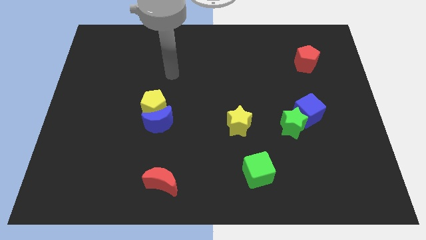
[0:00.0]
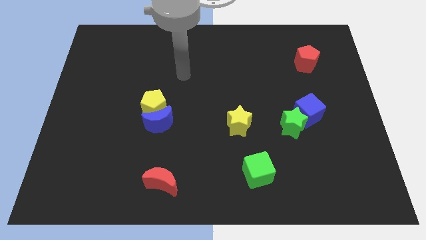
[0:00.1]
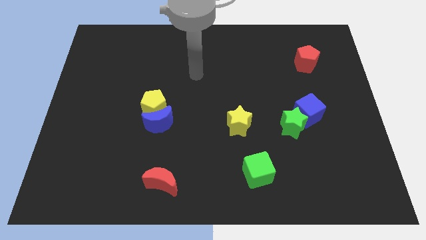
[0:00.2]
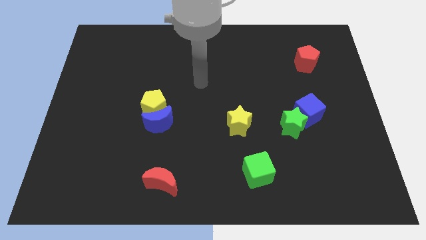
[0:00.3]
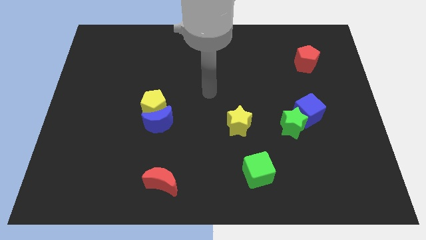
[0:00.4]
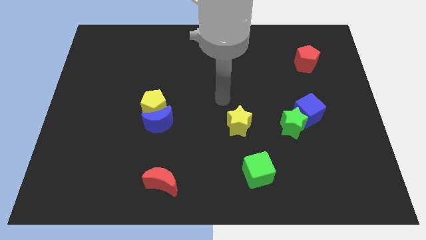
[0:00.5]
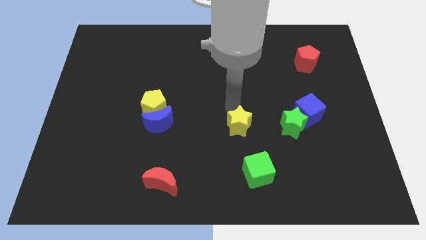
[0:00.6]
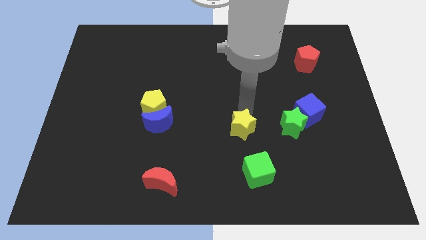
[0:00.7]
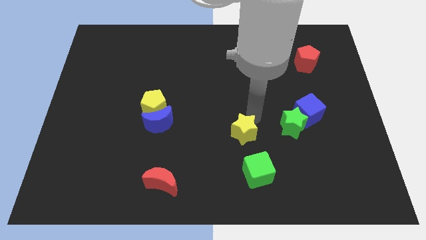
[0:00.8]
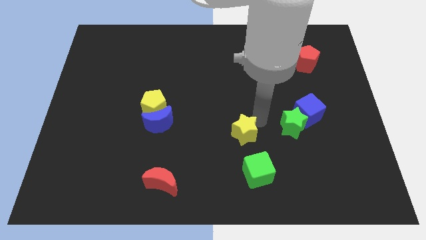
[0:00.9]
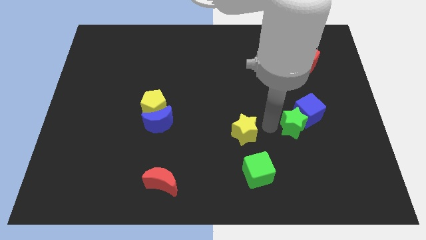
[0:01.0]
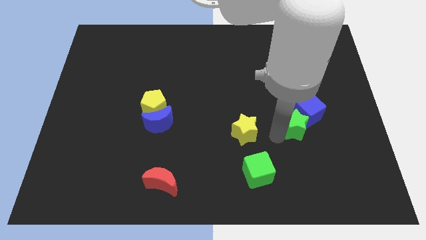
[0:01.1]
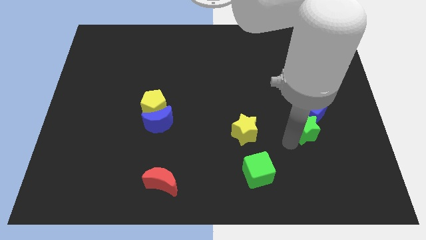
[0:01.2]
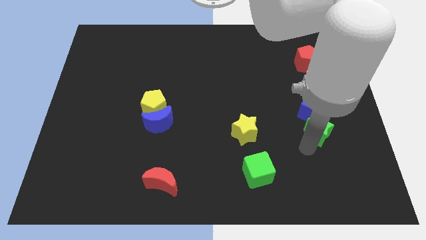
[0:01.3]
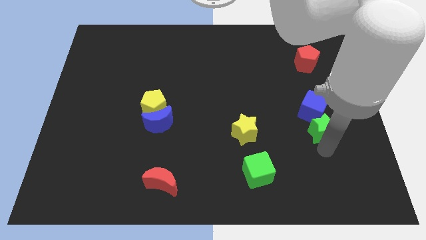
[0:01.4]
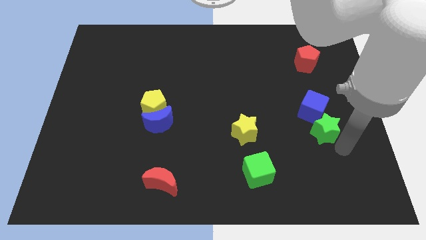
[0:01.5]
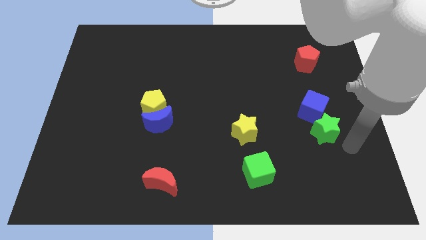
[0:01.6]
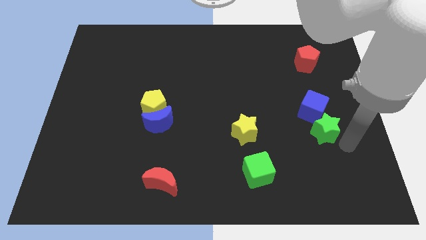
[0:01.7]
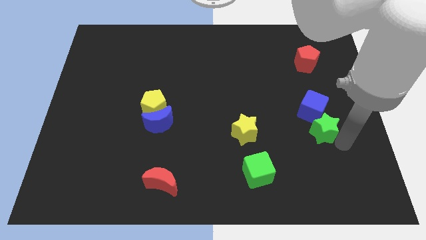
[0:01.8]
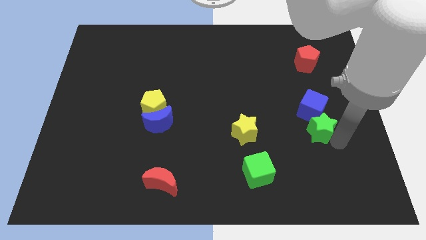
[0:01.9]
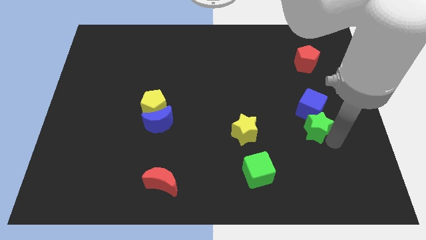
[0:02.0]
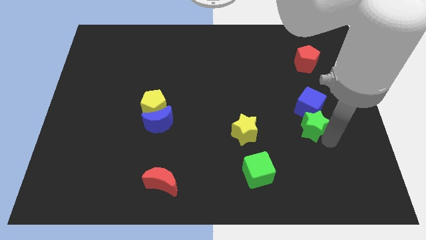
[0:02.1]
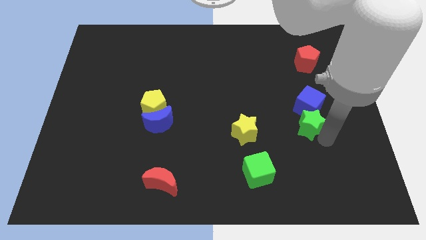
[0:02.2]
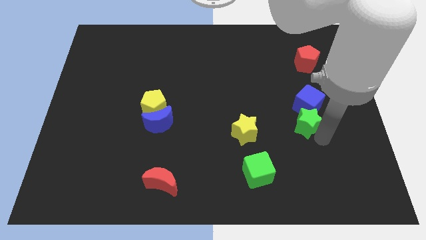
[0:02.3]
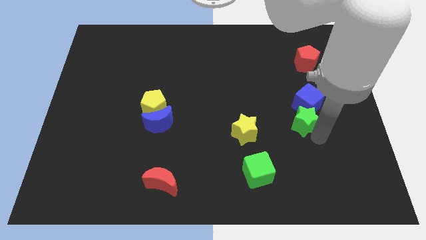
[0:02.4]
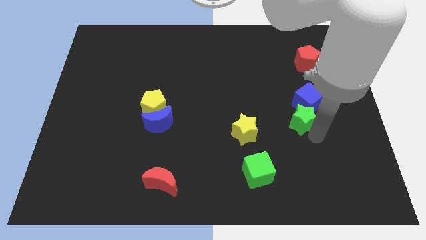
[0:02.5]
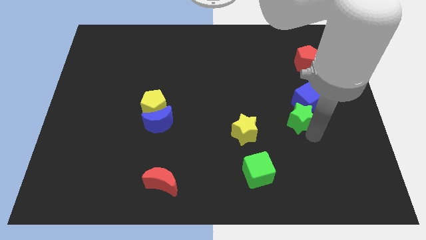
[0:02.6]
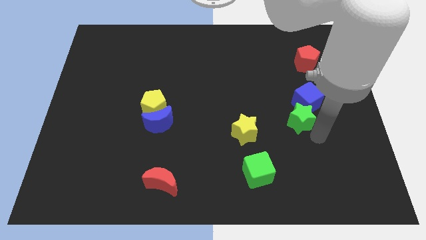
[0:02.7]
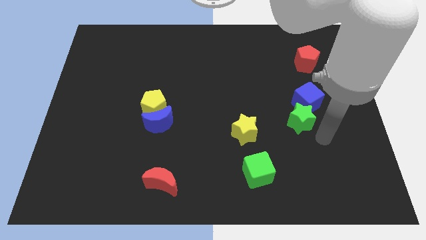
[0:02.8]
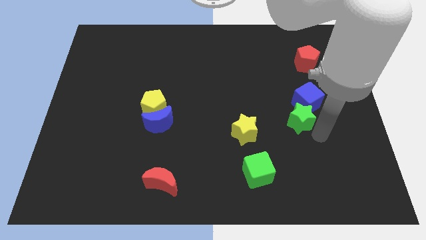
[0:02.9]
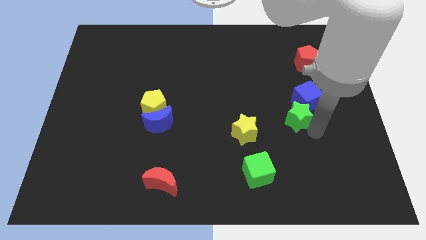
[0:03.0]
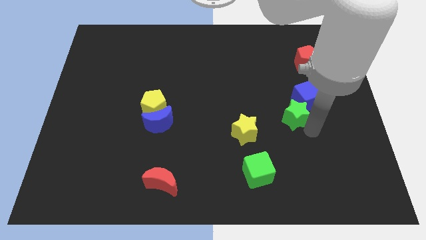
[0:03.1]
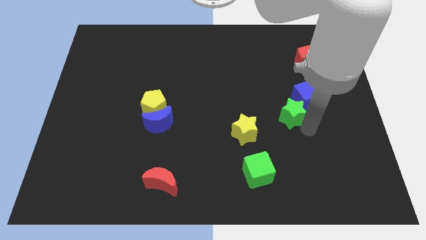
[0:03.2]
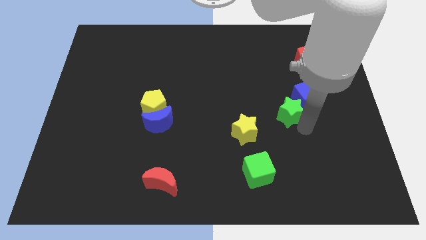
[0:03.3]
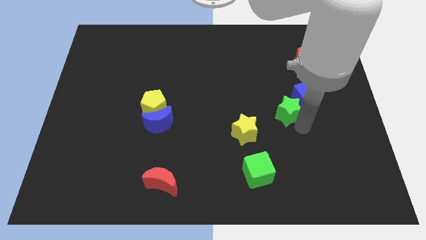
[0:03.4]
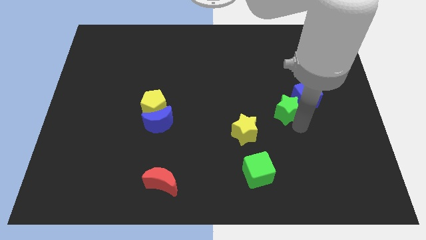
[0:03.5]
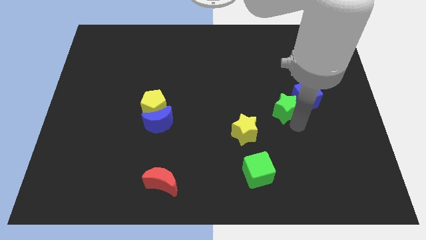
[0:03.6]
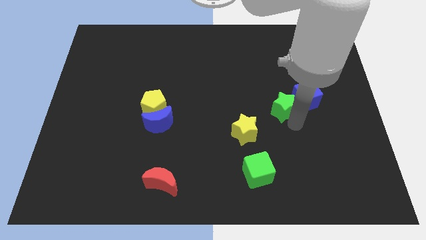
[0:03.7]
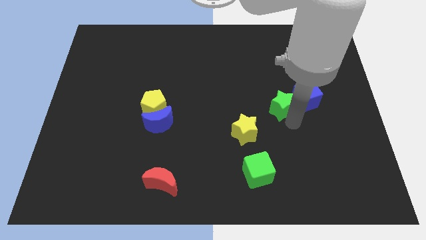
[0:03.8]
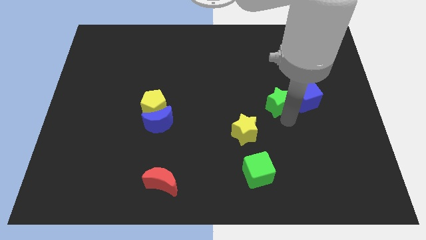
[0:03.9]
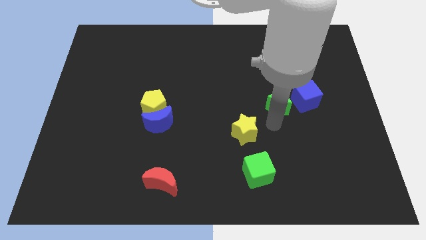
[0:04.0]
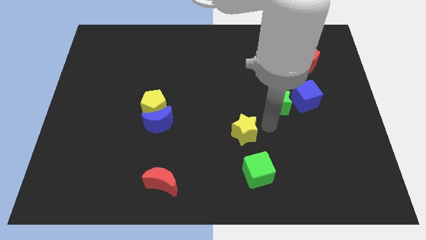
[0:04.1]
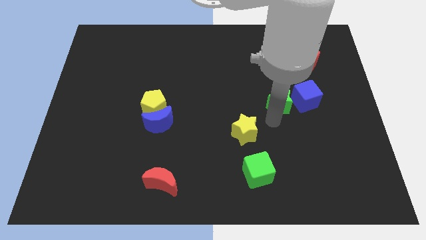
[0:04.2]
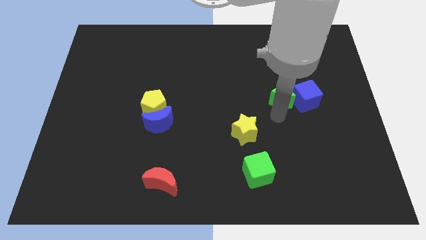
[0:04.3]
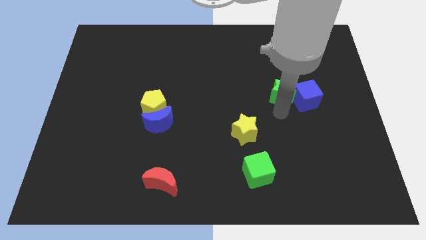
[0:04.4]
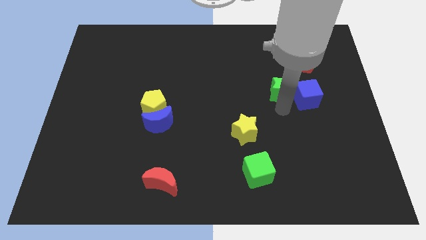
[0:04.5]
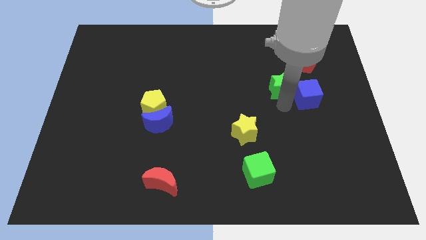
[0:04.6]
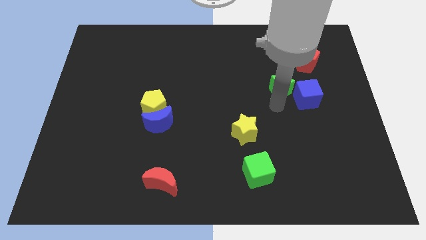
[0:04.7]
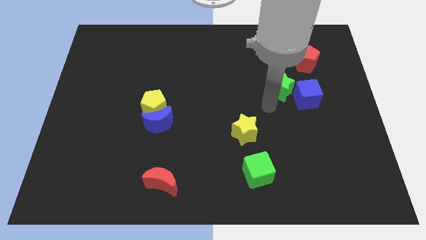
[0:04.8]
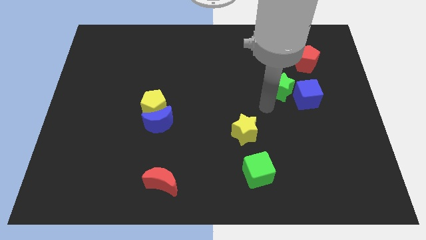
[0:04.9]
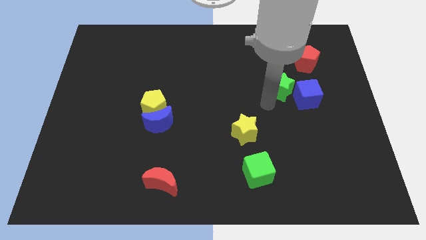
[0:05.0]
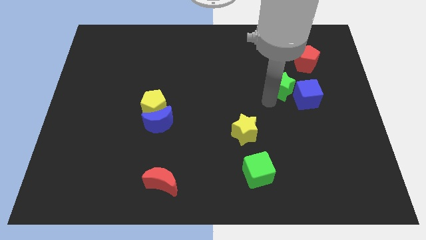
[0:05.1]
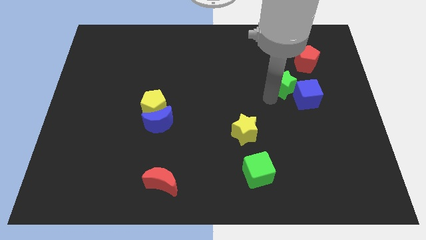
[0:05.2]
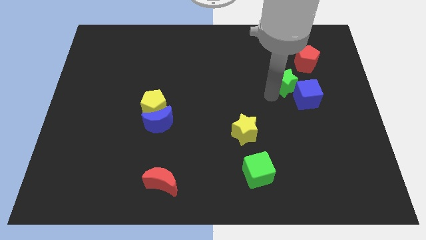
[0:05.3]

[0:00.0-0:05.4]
put the green star to the top side of the blue cube

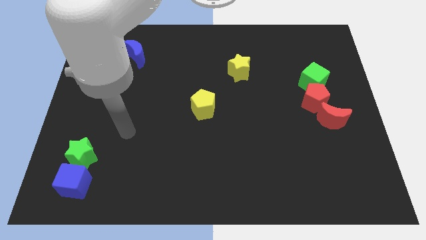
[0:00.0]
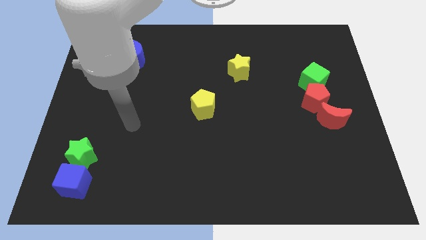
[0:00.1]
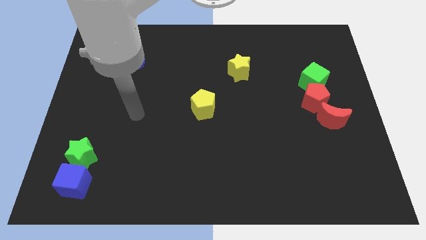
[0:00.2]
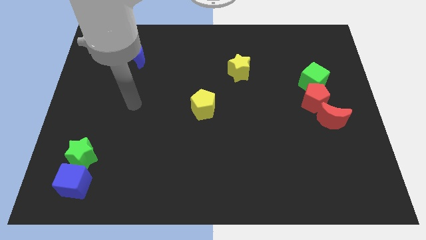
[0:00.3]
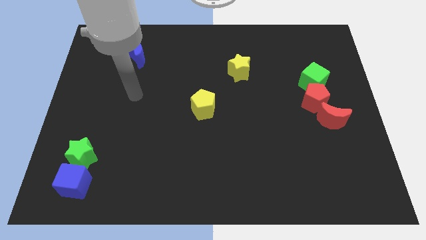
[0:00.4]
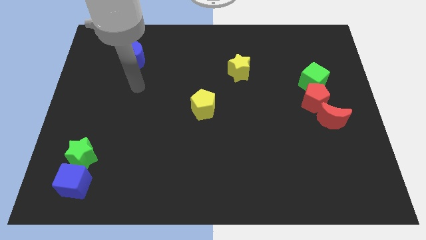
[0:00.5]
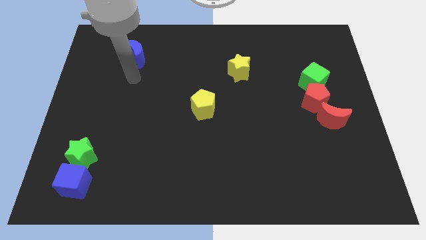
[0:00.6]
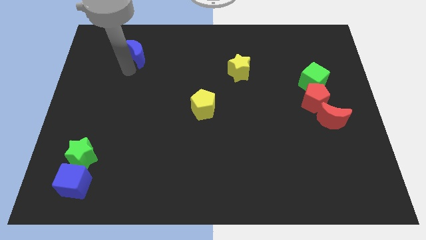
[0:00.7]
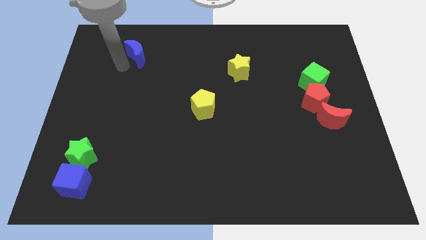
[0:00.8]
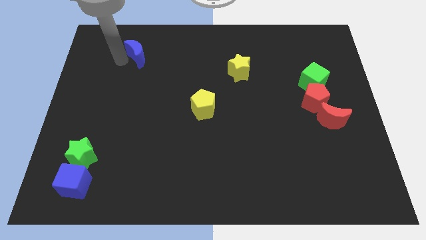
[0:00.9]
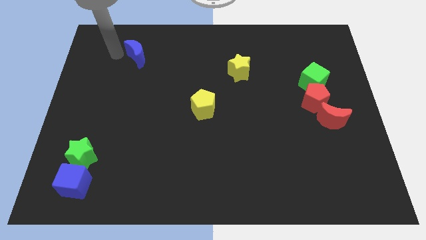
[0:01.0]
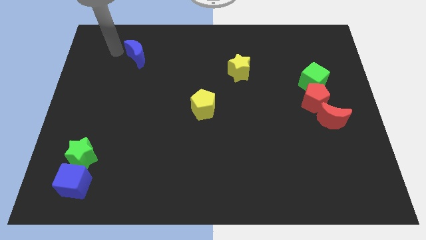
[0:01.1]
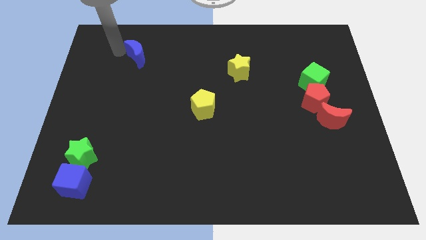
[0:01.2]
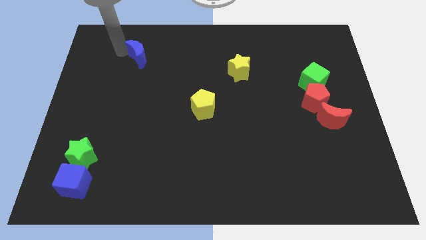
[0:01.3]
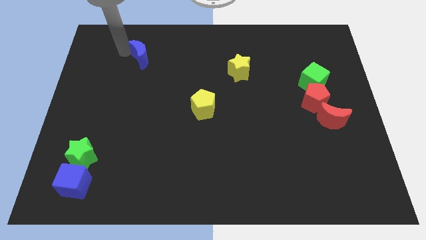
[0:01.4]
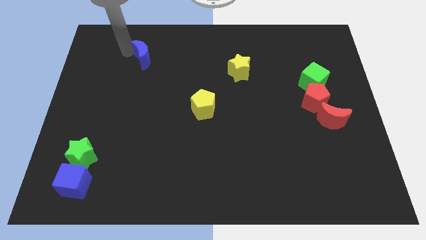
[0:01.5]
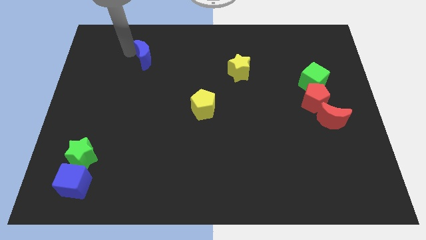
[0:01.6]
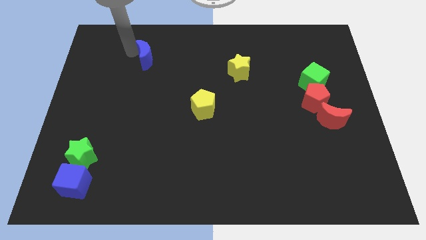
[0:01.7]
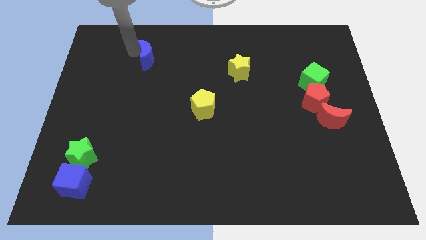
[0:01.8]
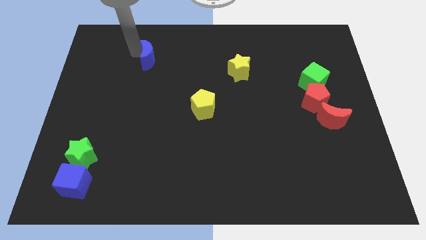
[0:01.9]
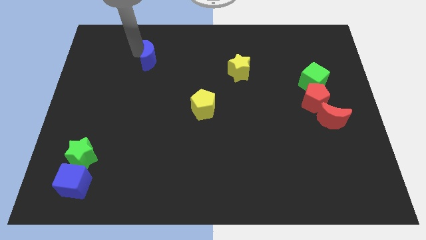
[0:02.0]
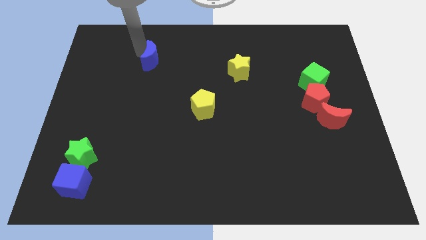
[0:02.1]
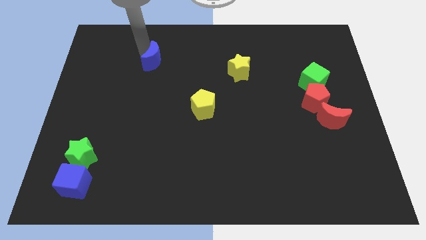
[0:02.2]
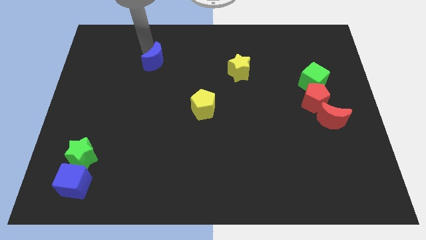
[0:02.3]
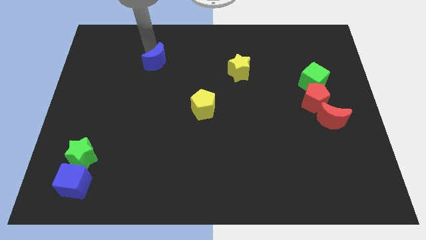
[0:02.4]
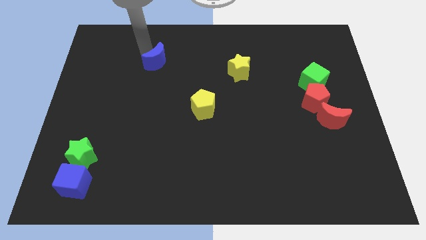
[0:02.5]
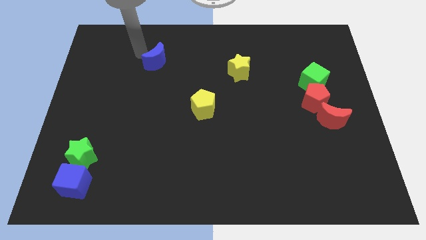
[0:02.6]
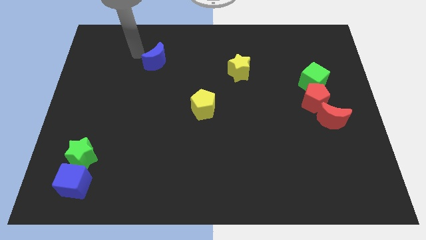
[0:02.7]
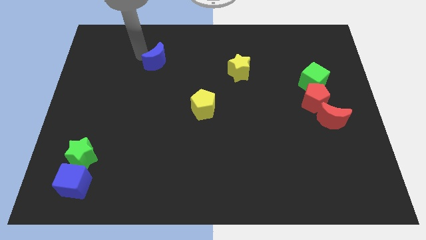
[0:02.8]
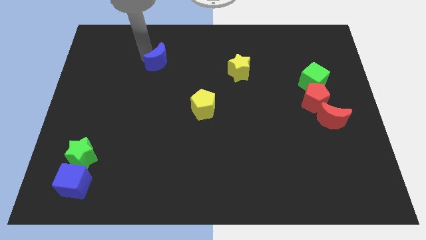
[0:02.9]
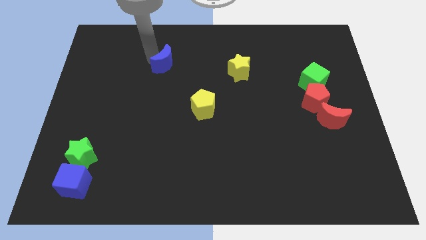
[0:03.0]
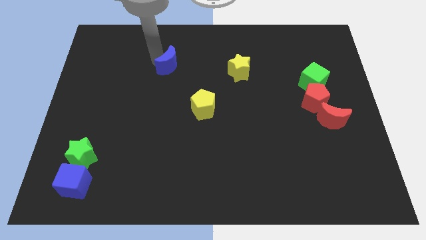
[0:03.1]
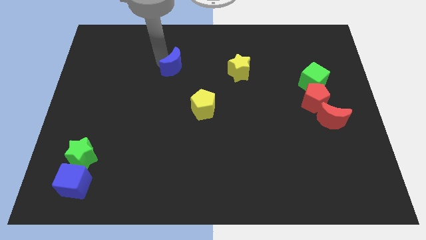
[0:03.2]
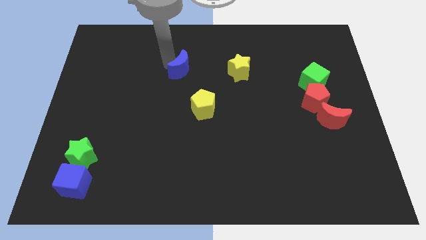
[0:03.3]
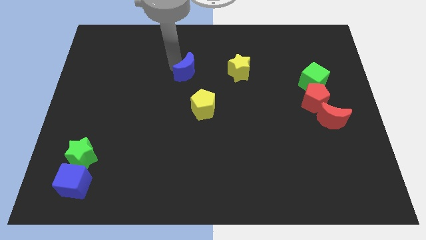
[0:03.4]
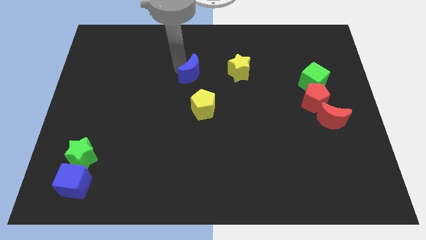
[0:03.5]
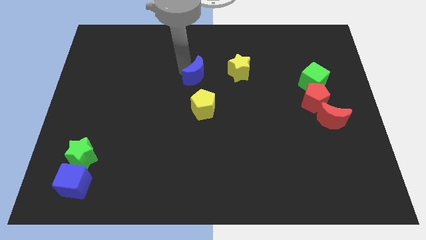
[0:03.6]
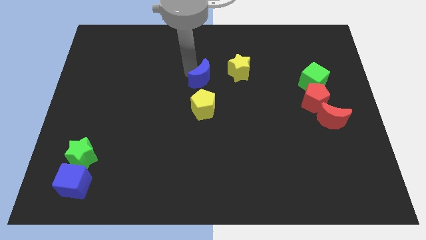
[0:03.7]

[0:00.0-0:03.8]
move the blue moon to the bottom left side of the yellow star
